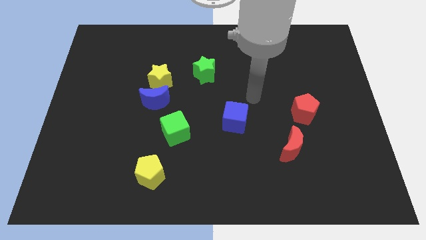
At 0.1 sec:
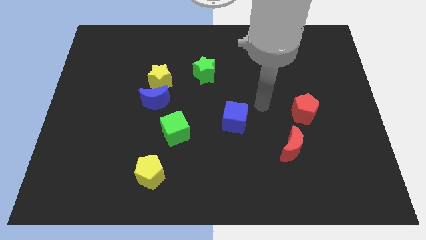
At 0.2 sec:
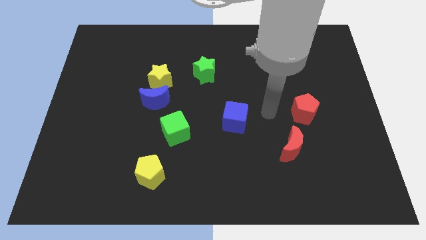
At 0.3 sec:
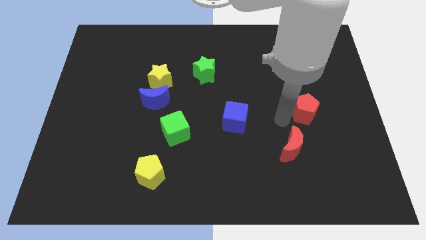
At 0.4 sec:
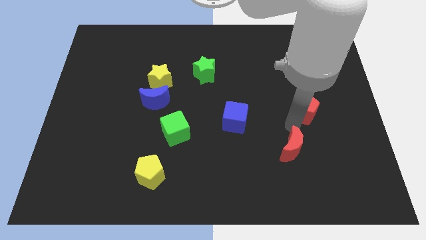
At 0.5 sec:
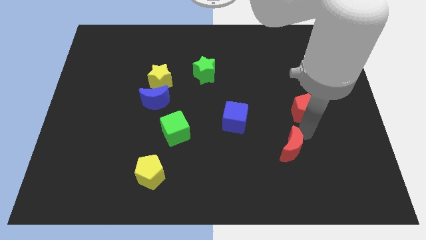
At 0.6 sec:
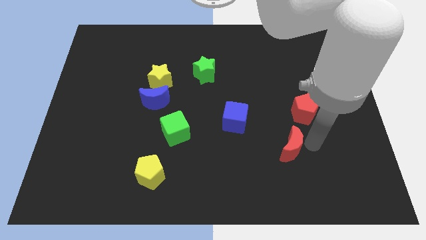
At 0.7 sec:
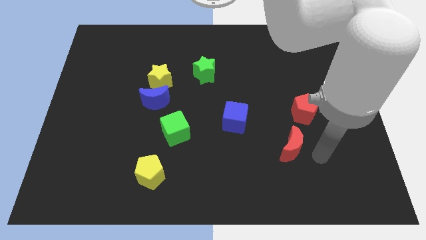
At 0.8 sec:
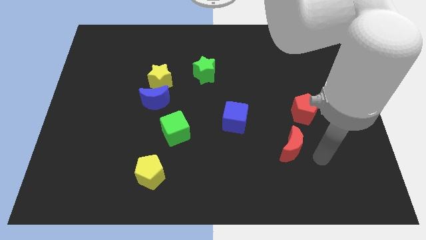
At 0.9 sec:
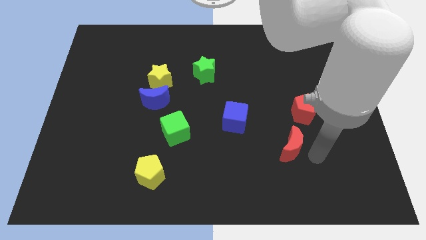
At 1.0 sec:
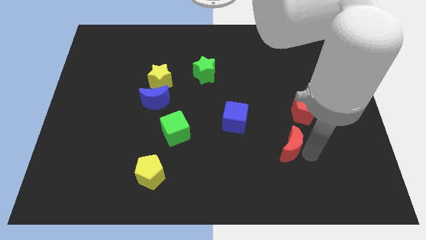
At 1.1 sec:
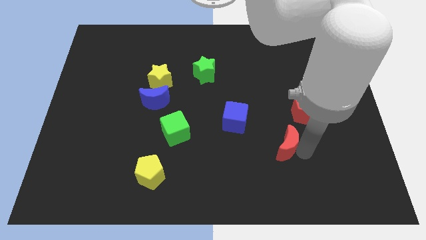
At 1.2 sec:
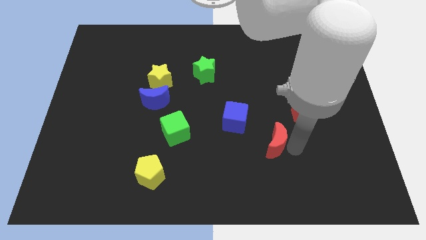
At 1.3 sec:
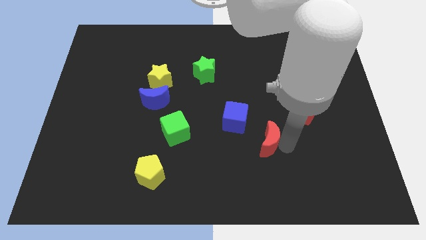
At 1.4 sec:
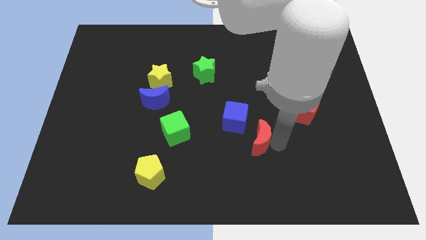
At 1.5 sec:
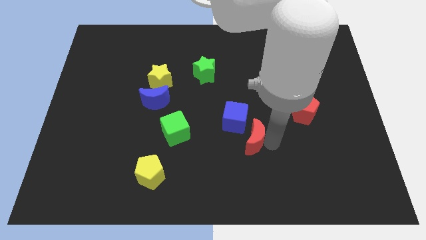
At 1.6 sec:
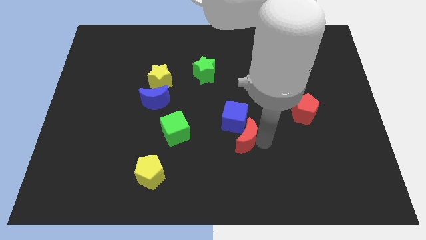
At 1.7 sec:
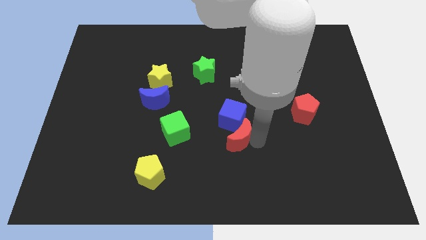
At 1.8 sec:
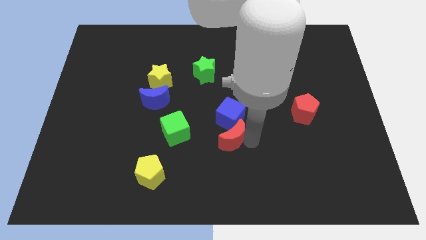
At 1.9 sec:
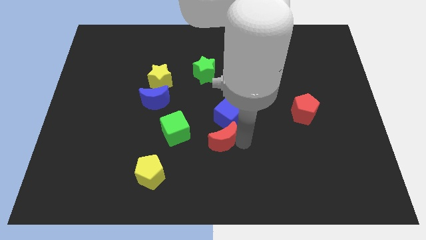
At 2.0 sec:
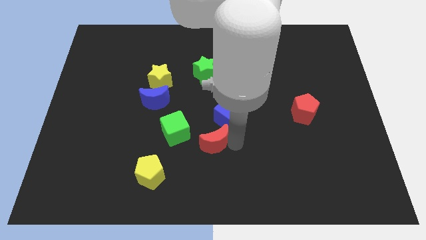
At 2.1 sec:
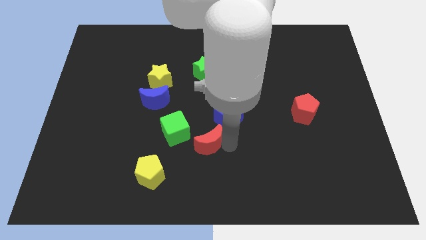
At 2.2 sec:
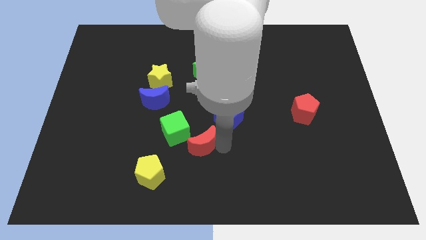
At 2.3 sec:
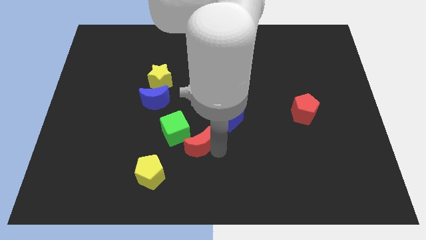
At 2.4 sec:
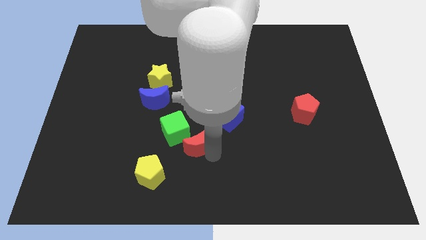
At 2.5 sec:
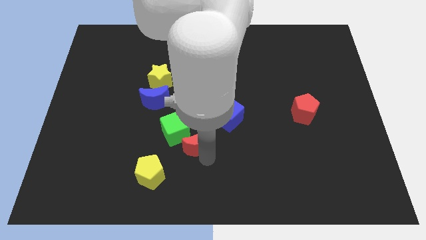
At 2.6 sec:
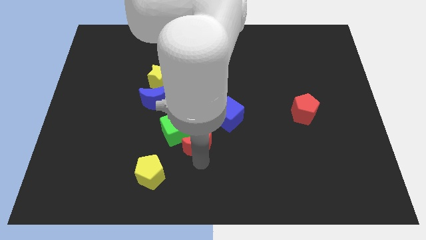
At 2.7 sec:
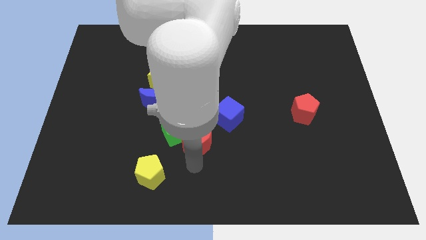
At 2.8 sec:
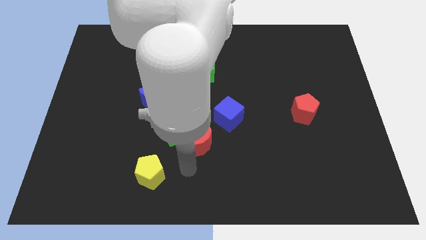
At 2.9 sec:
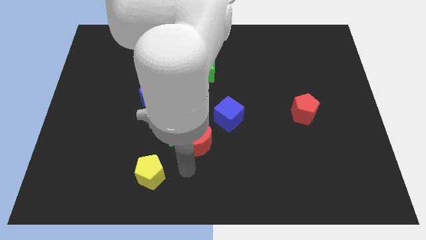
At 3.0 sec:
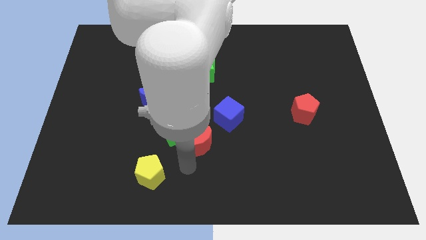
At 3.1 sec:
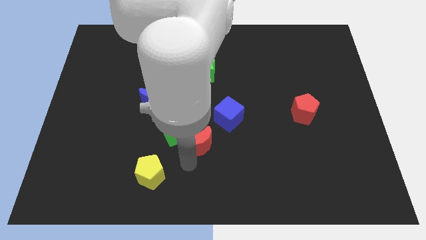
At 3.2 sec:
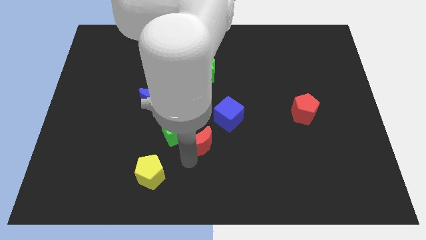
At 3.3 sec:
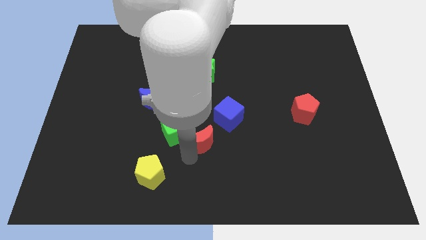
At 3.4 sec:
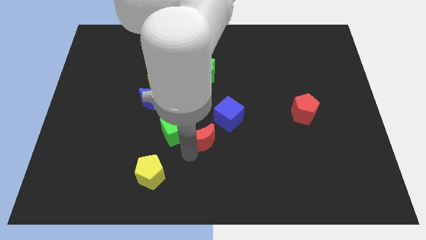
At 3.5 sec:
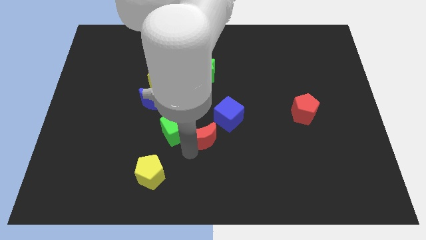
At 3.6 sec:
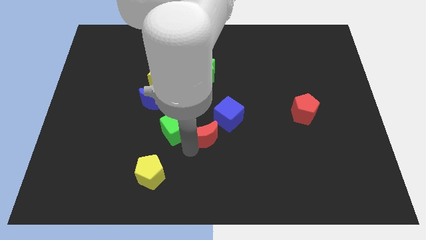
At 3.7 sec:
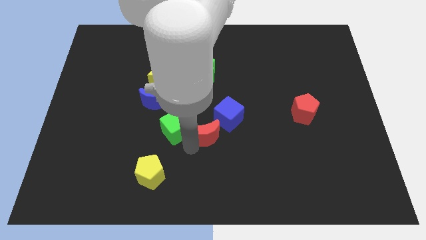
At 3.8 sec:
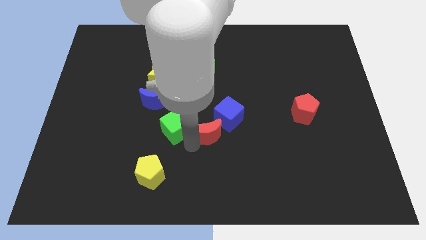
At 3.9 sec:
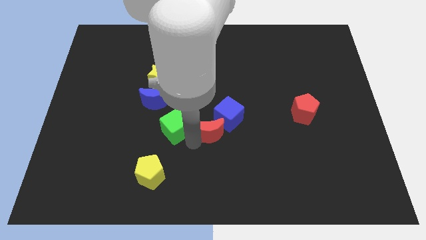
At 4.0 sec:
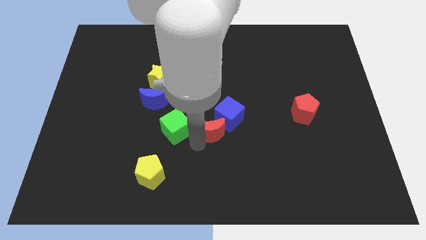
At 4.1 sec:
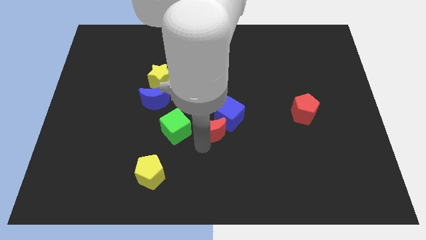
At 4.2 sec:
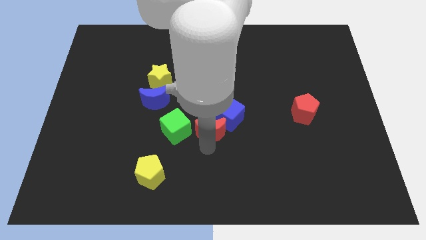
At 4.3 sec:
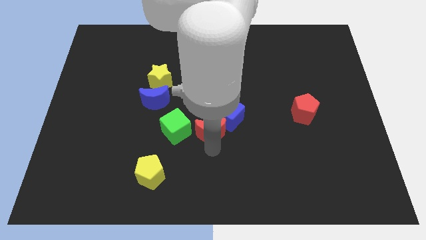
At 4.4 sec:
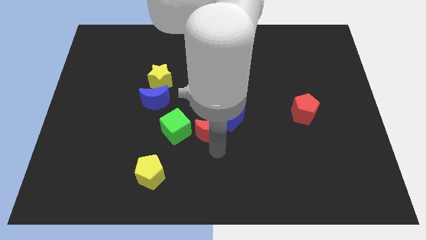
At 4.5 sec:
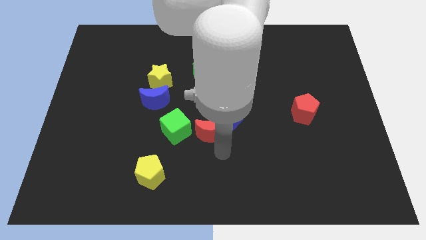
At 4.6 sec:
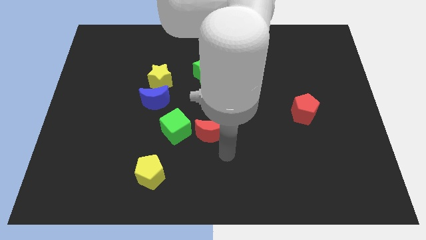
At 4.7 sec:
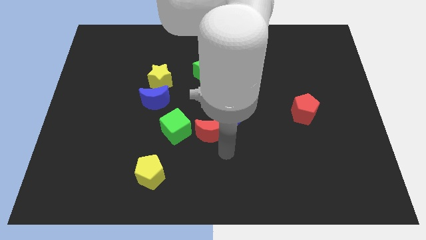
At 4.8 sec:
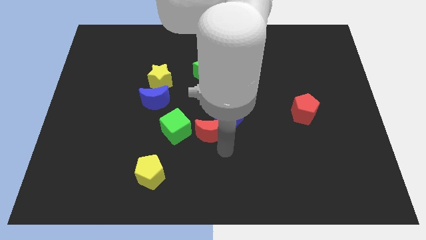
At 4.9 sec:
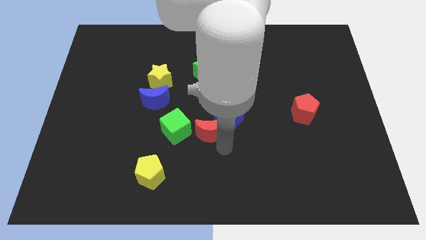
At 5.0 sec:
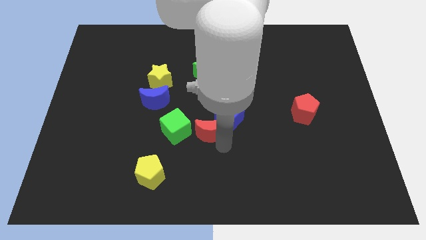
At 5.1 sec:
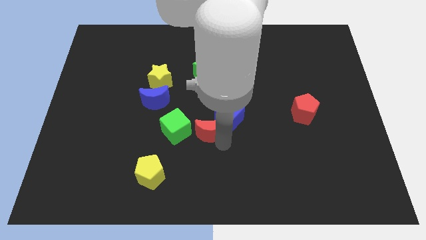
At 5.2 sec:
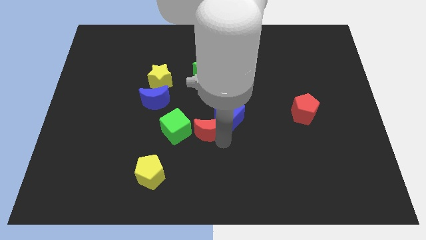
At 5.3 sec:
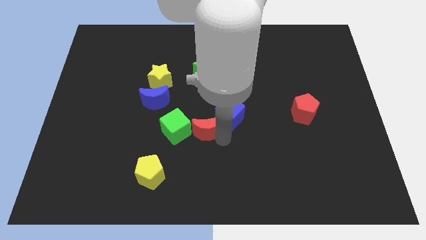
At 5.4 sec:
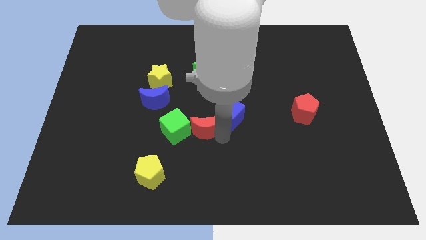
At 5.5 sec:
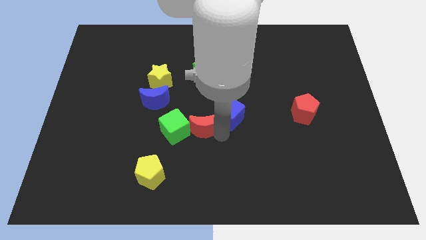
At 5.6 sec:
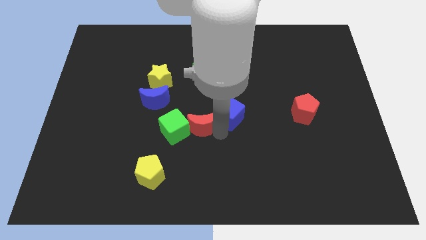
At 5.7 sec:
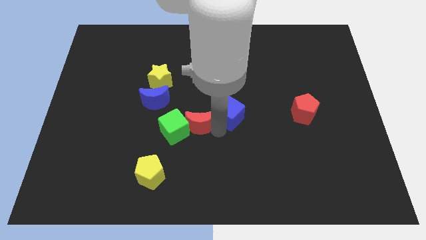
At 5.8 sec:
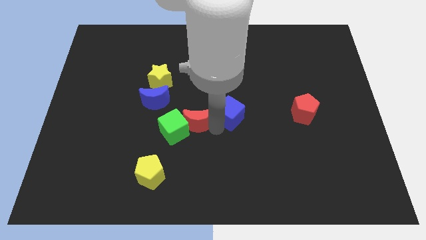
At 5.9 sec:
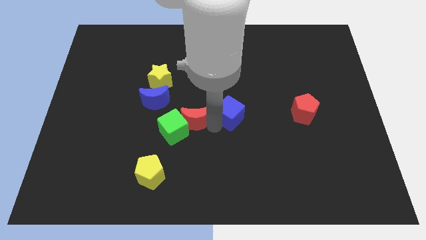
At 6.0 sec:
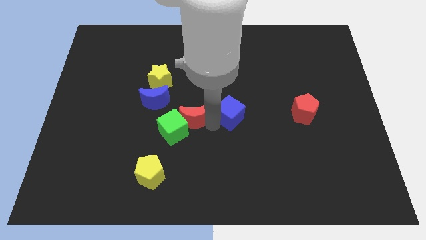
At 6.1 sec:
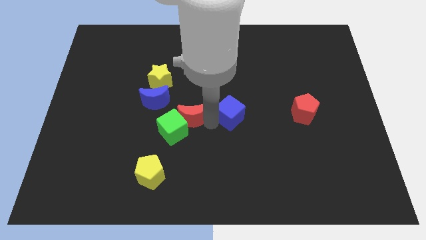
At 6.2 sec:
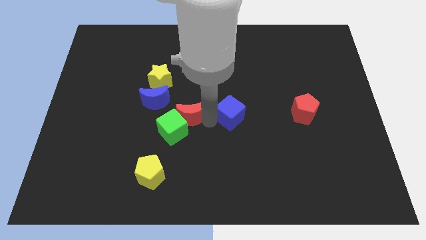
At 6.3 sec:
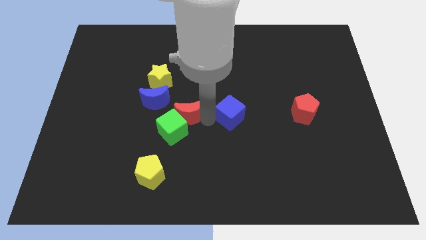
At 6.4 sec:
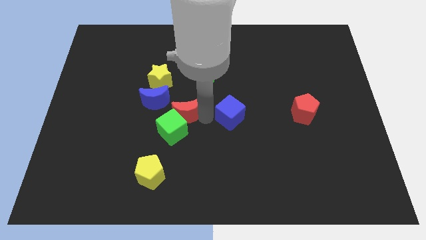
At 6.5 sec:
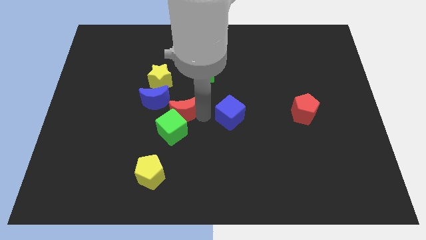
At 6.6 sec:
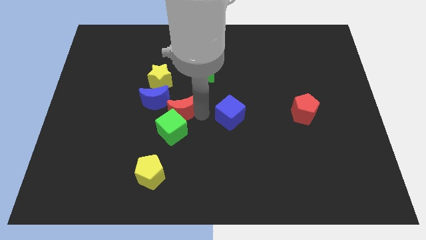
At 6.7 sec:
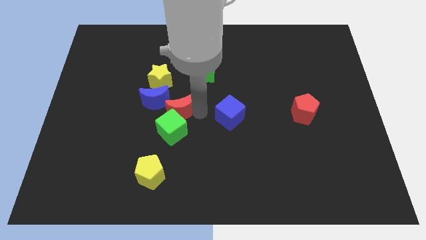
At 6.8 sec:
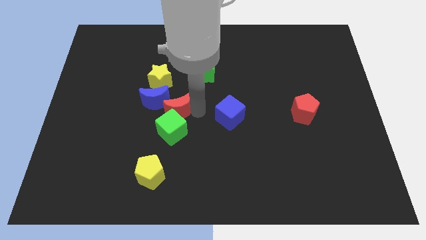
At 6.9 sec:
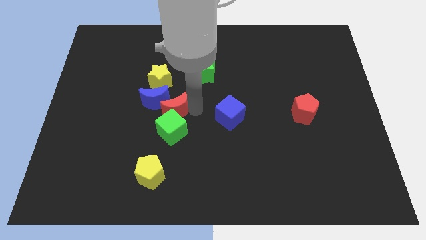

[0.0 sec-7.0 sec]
put the red moon to the blue moon
